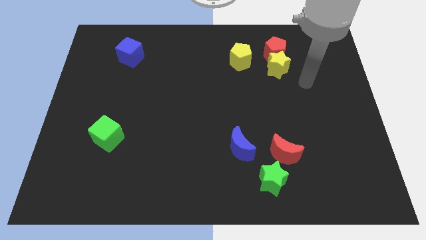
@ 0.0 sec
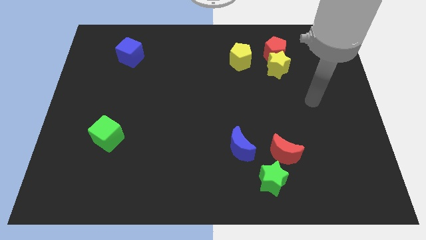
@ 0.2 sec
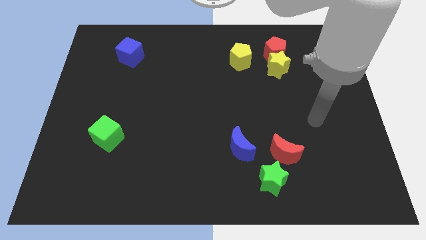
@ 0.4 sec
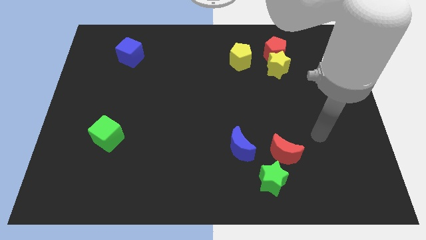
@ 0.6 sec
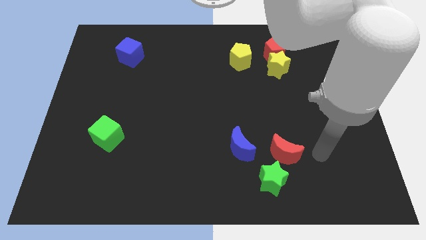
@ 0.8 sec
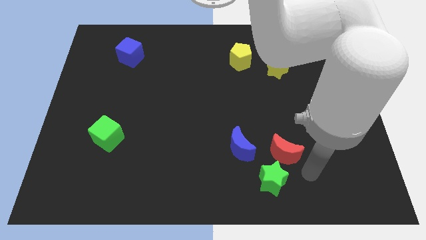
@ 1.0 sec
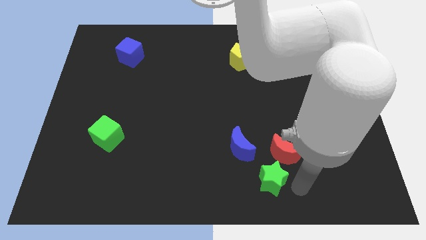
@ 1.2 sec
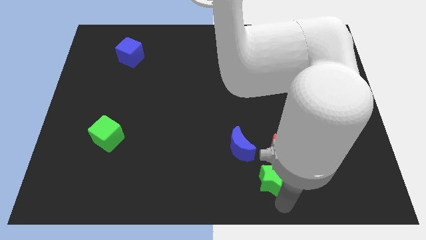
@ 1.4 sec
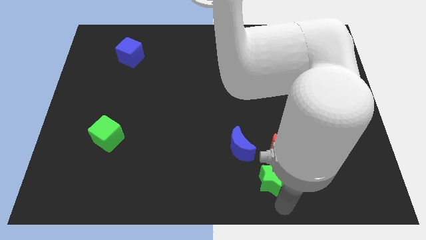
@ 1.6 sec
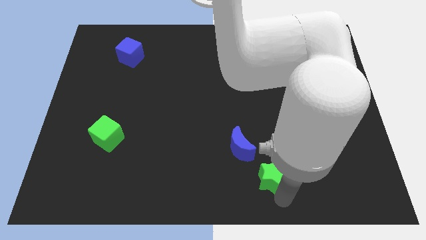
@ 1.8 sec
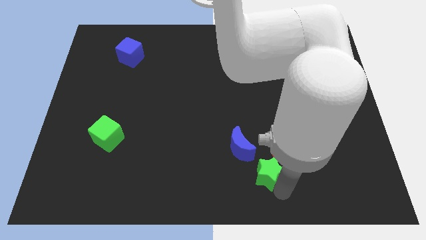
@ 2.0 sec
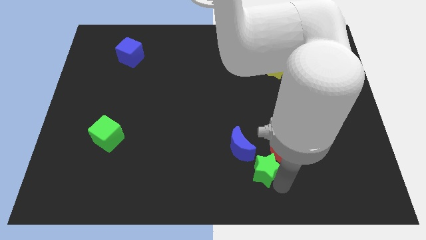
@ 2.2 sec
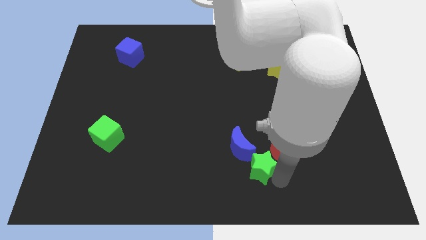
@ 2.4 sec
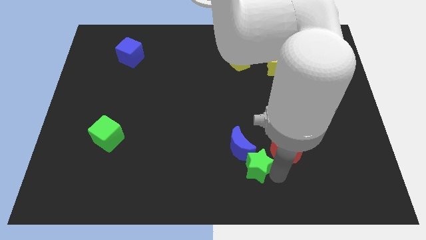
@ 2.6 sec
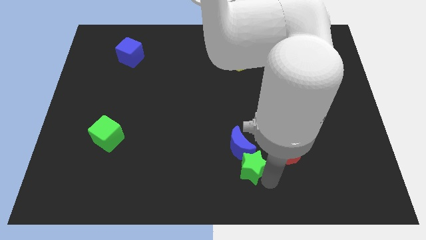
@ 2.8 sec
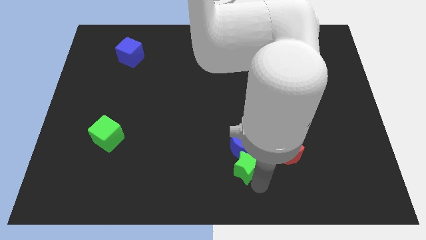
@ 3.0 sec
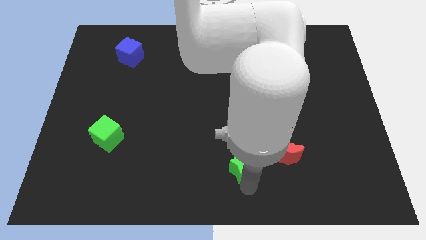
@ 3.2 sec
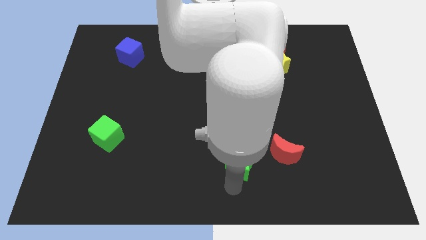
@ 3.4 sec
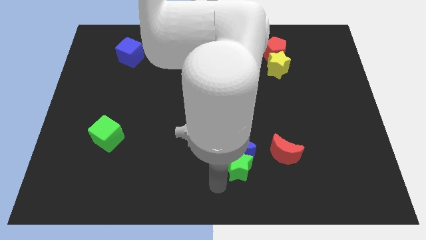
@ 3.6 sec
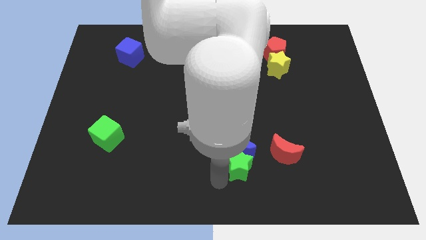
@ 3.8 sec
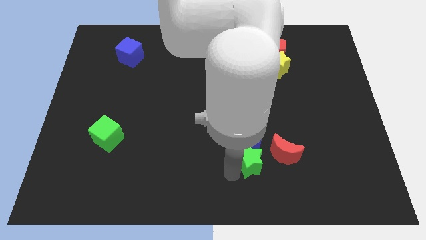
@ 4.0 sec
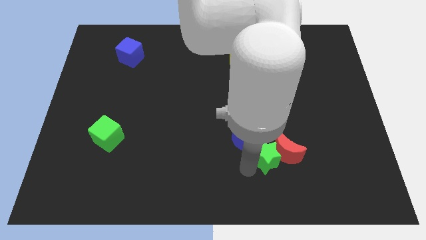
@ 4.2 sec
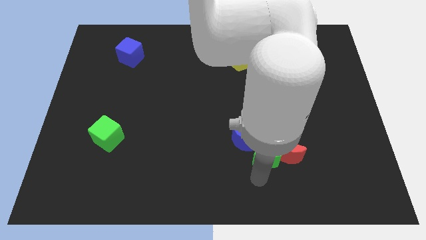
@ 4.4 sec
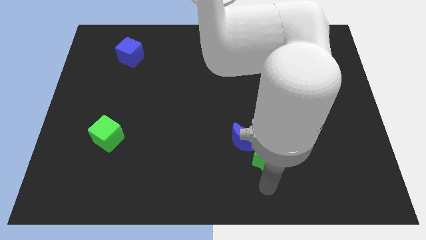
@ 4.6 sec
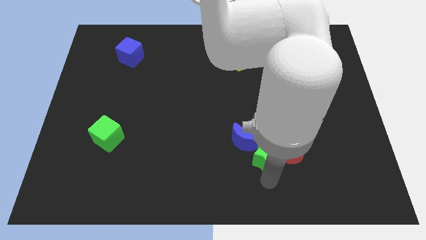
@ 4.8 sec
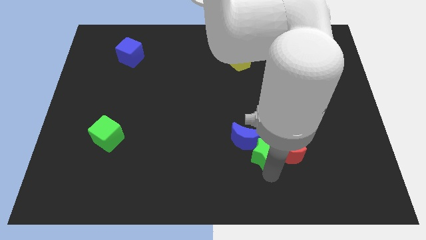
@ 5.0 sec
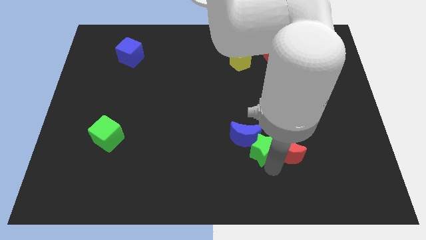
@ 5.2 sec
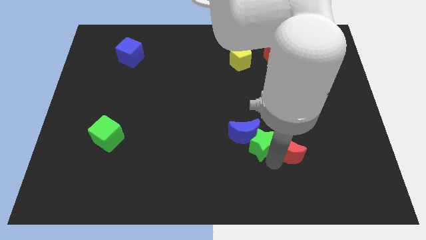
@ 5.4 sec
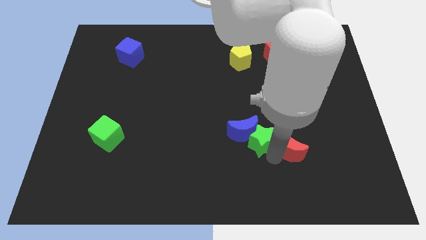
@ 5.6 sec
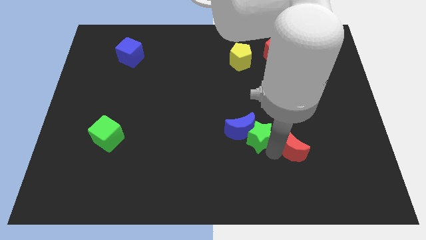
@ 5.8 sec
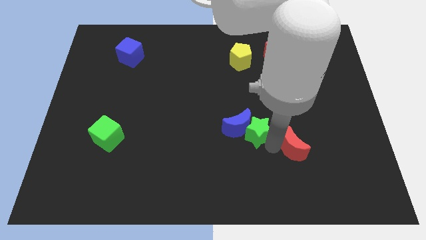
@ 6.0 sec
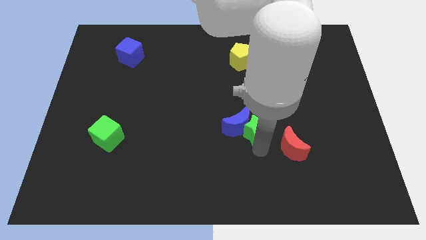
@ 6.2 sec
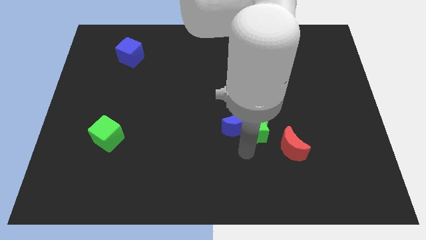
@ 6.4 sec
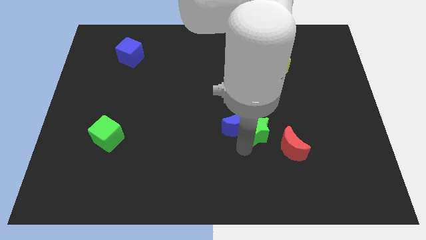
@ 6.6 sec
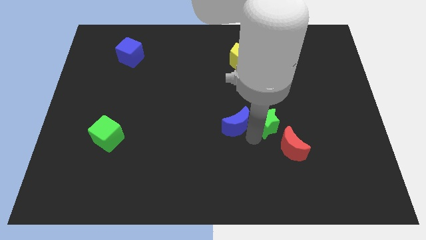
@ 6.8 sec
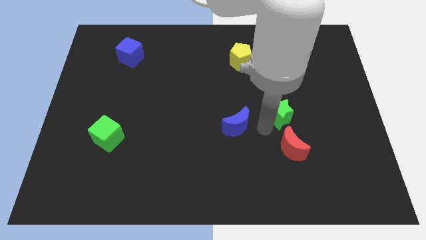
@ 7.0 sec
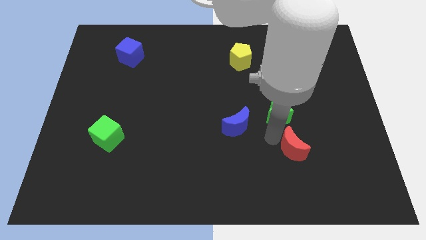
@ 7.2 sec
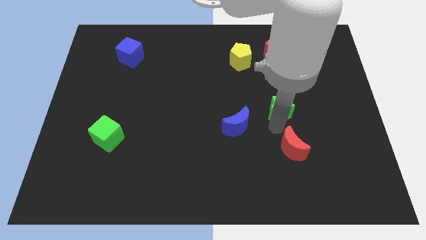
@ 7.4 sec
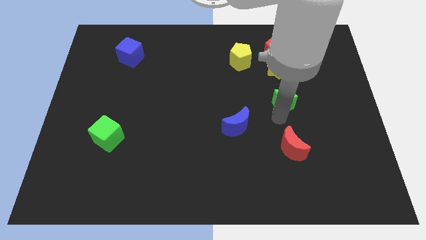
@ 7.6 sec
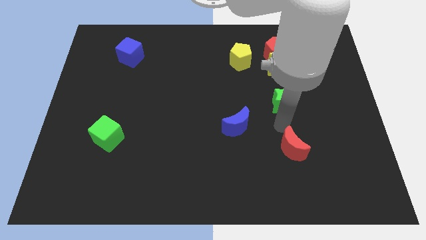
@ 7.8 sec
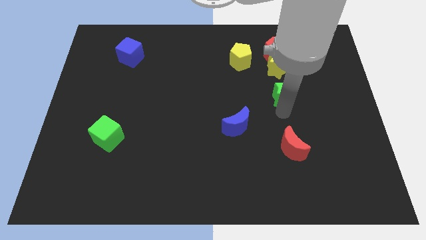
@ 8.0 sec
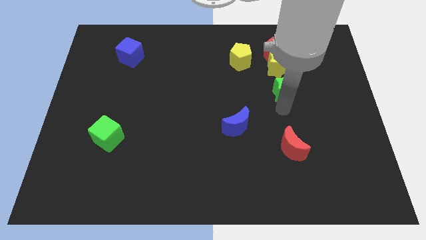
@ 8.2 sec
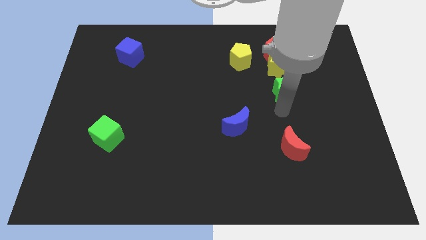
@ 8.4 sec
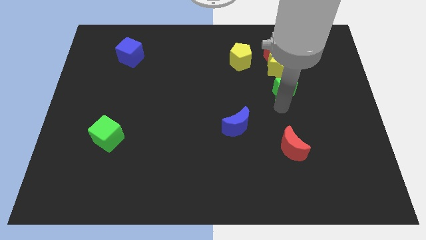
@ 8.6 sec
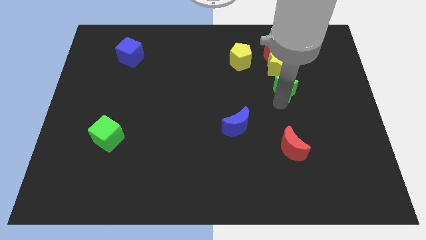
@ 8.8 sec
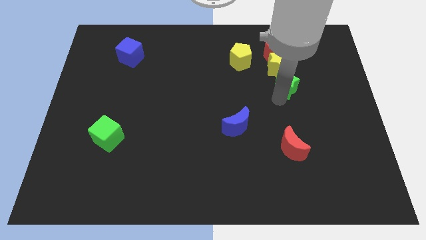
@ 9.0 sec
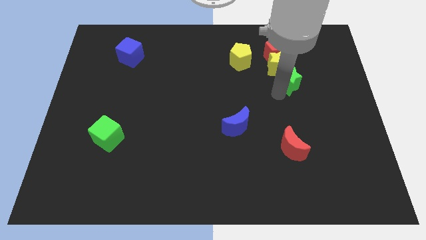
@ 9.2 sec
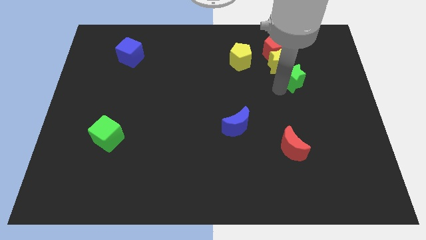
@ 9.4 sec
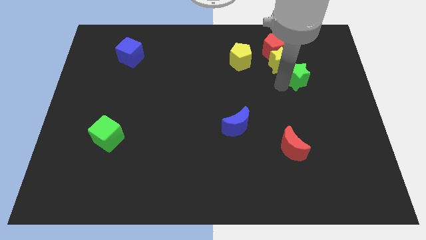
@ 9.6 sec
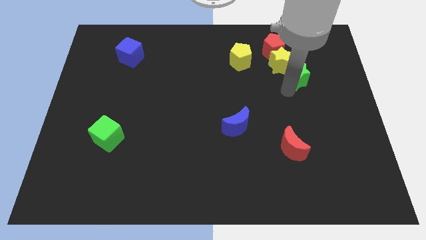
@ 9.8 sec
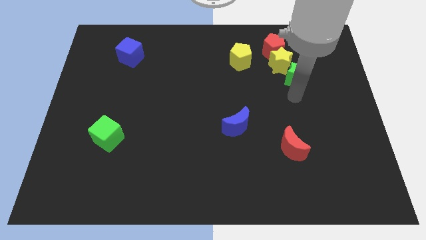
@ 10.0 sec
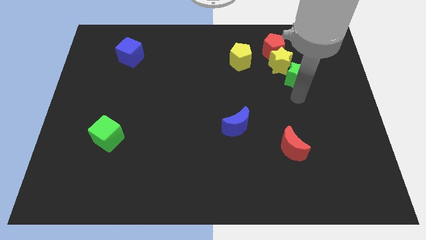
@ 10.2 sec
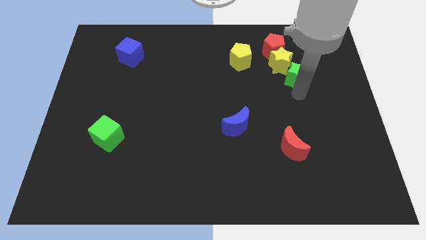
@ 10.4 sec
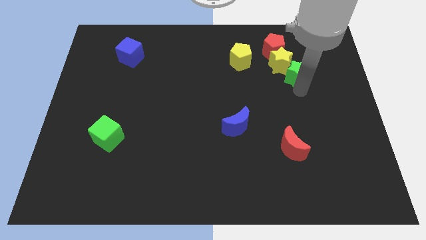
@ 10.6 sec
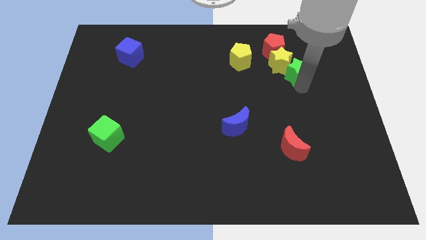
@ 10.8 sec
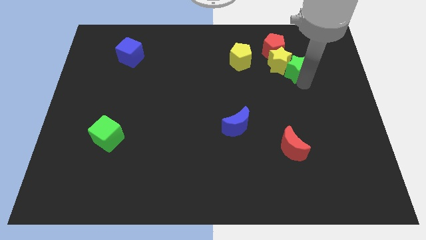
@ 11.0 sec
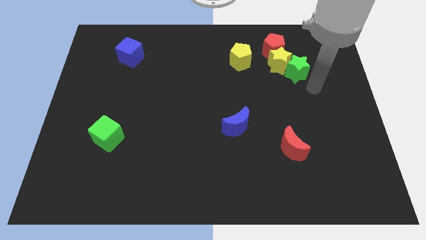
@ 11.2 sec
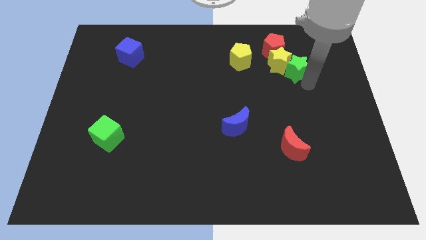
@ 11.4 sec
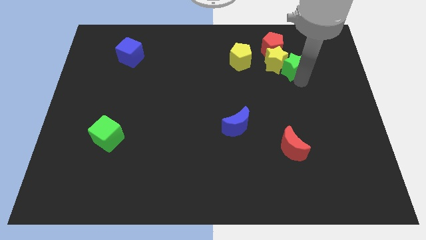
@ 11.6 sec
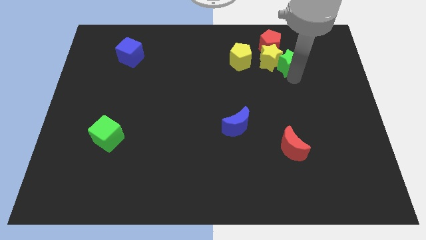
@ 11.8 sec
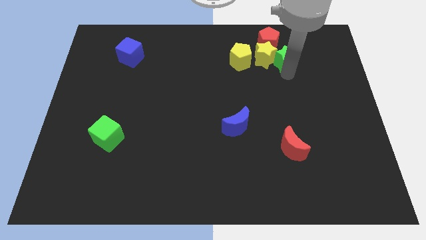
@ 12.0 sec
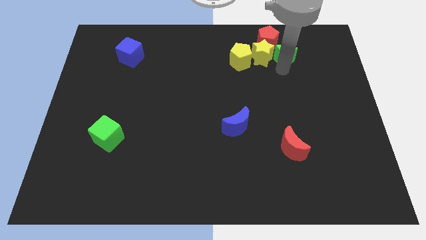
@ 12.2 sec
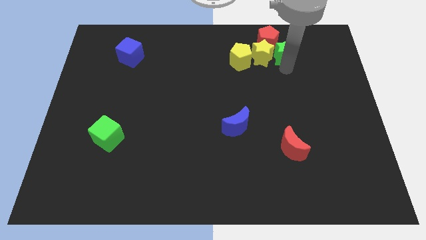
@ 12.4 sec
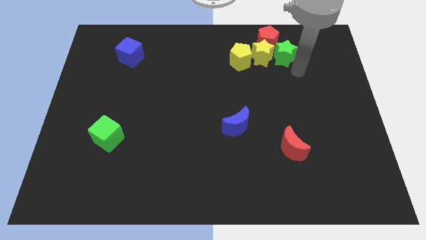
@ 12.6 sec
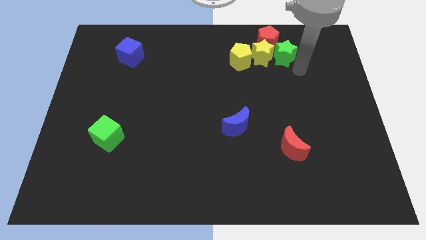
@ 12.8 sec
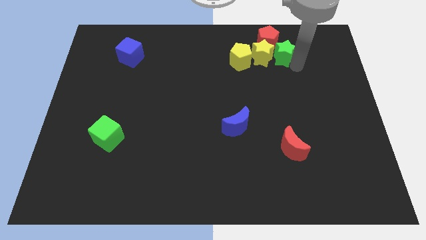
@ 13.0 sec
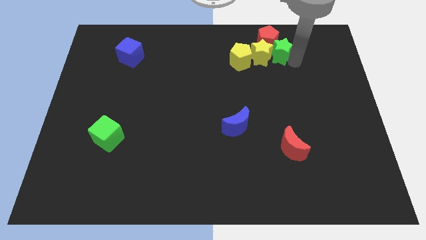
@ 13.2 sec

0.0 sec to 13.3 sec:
move the green star to the red pentagon
